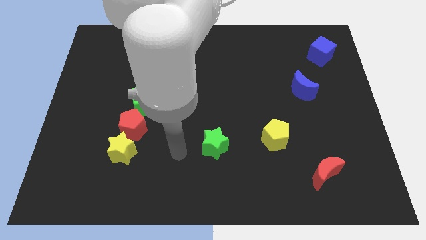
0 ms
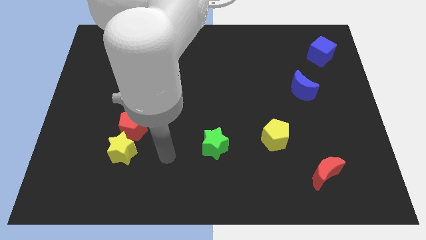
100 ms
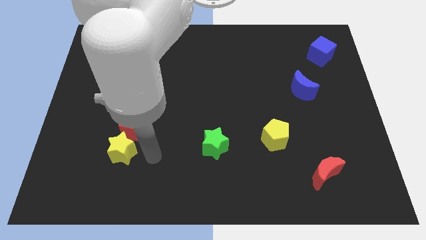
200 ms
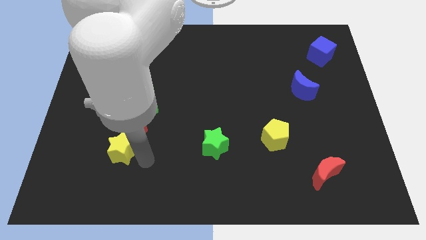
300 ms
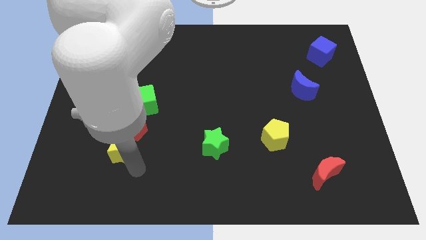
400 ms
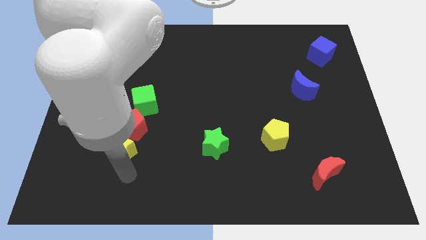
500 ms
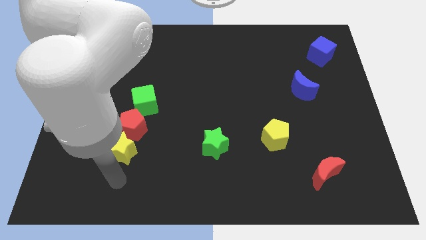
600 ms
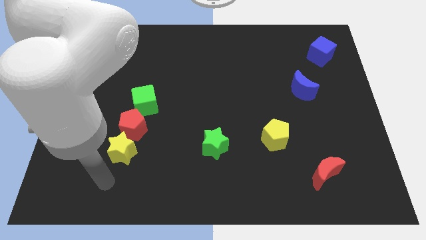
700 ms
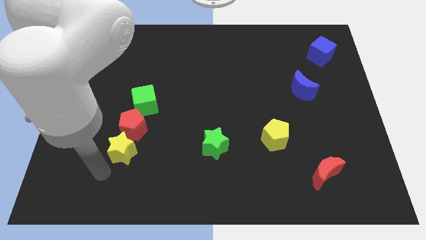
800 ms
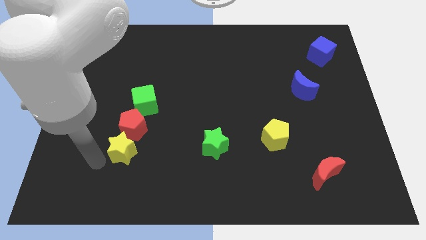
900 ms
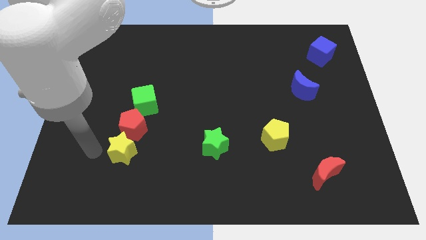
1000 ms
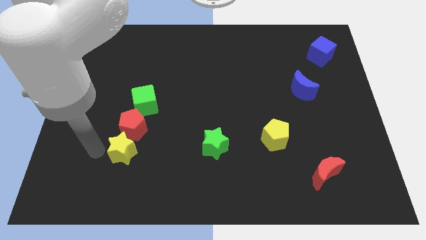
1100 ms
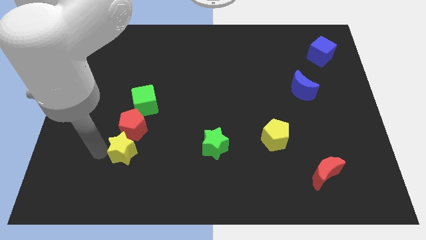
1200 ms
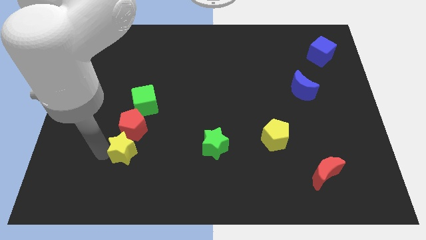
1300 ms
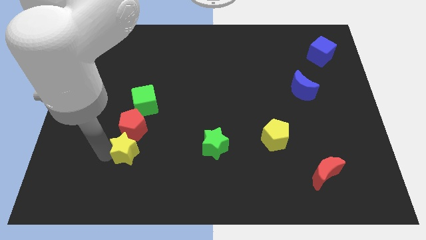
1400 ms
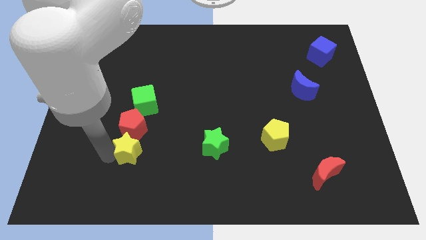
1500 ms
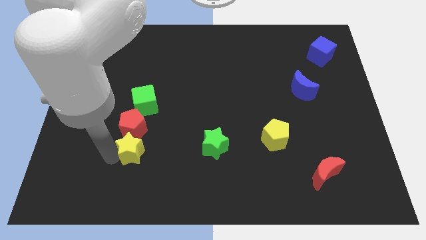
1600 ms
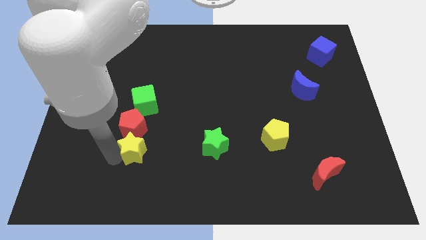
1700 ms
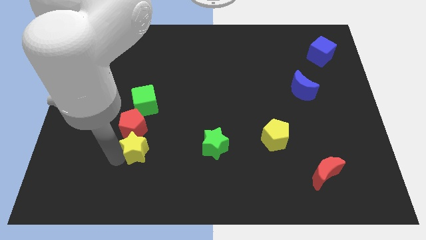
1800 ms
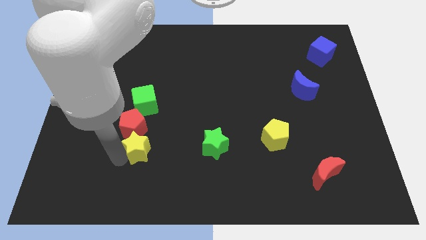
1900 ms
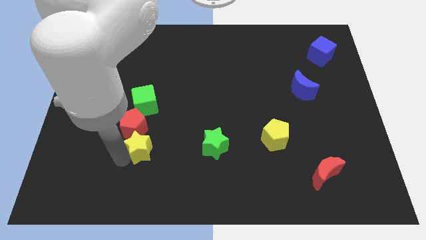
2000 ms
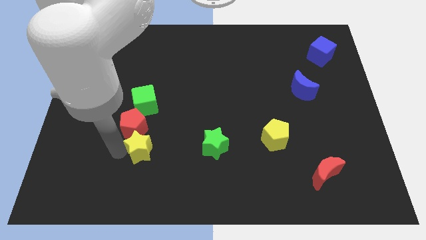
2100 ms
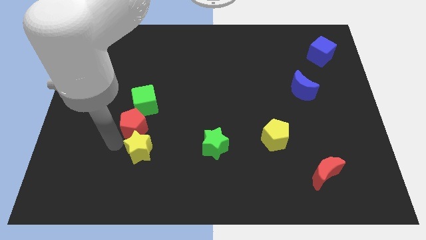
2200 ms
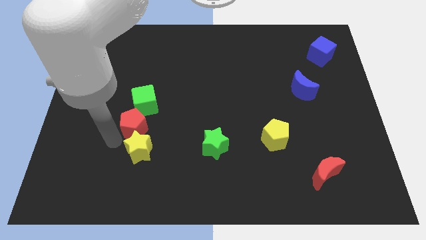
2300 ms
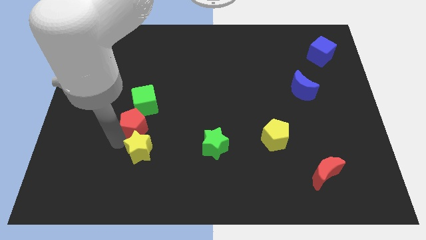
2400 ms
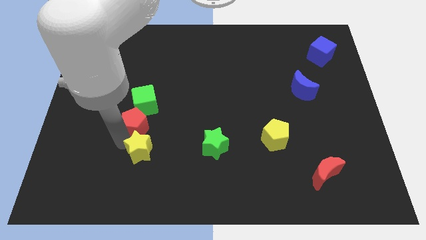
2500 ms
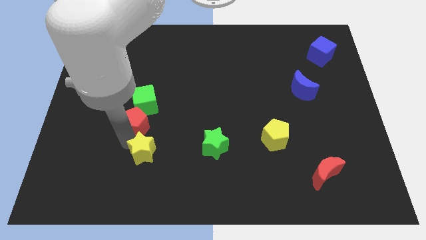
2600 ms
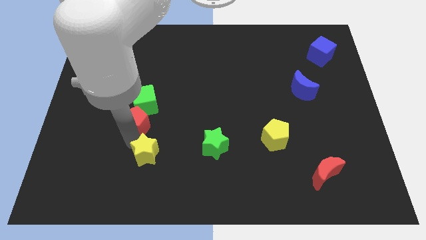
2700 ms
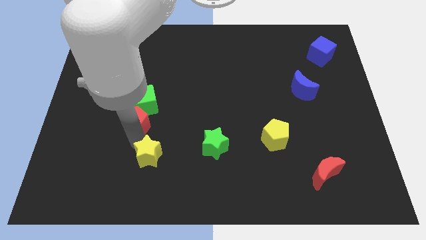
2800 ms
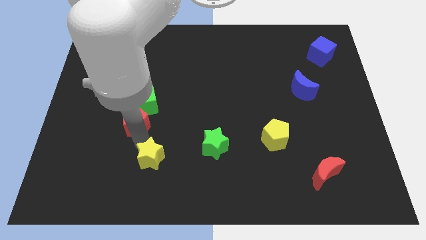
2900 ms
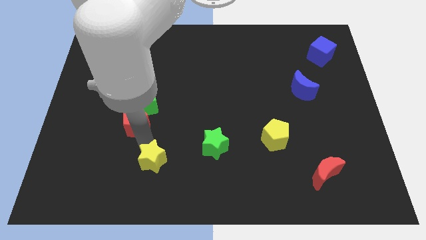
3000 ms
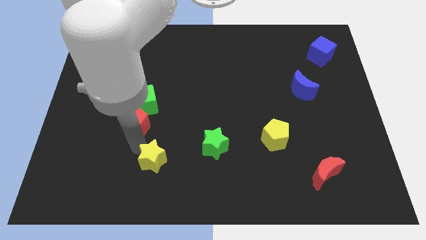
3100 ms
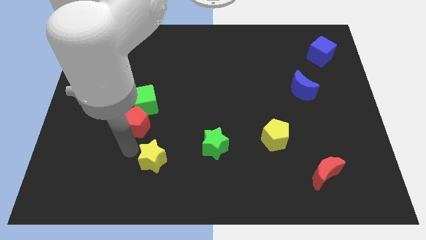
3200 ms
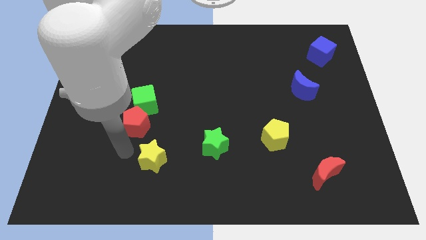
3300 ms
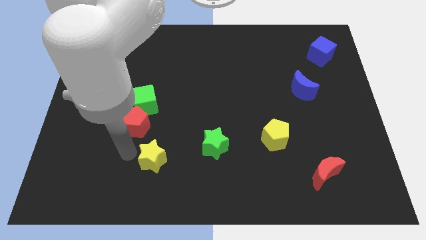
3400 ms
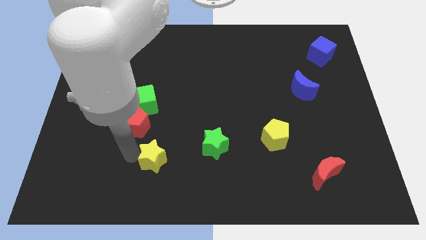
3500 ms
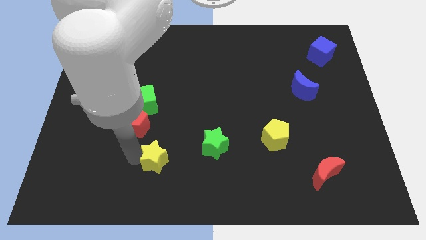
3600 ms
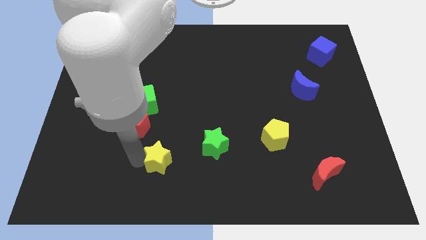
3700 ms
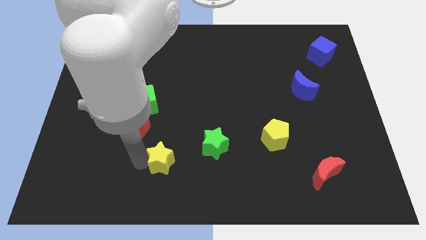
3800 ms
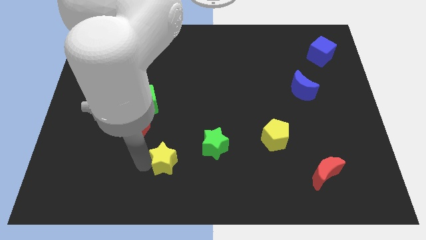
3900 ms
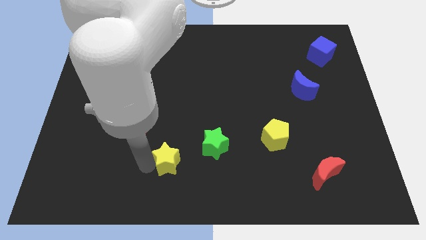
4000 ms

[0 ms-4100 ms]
push the yellow star to the bottom left of the green star

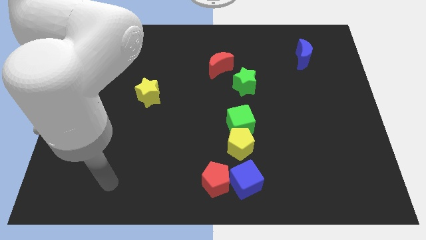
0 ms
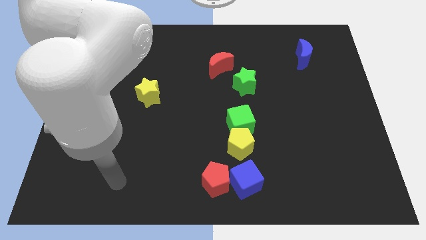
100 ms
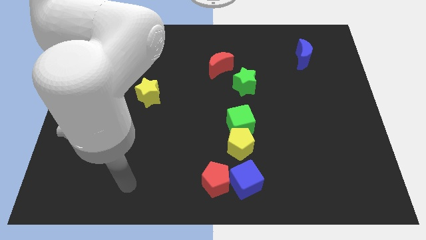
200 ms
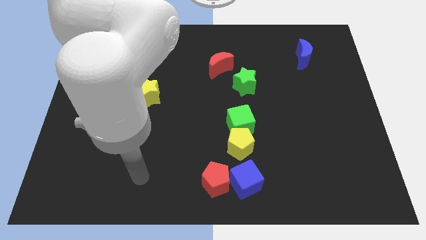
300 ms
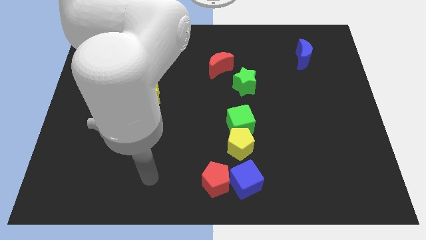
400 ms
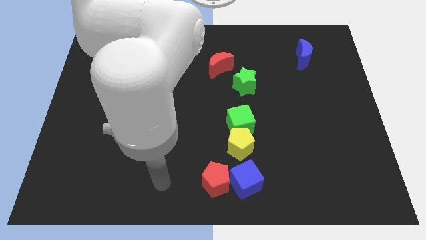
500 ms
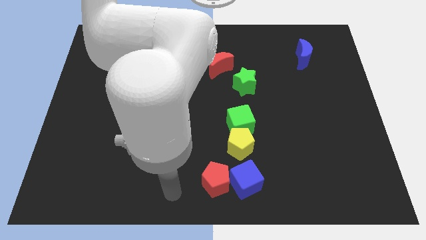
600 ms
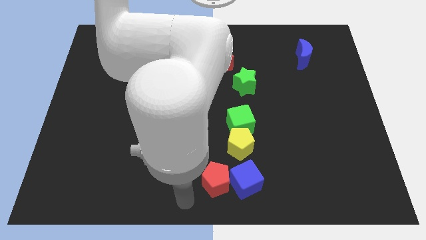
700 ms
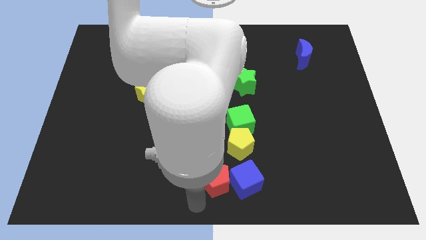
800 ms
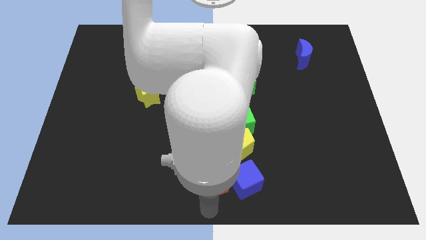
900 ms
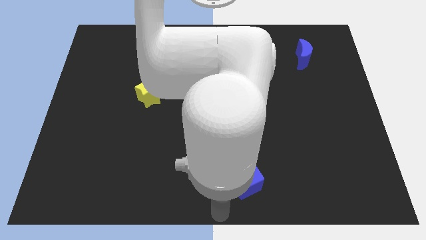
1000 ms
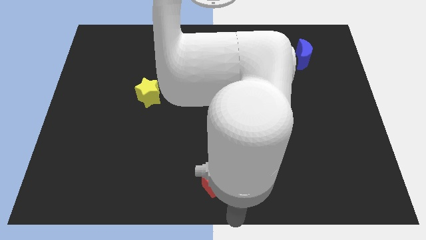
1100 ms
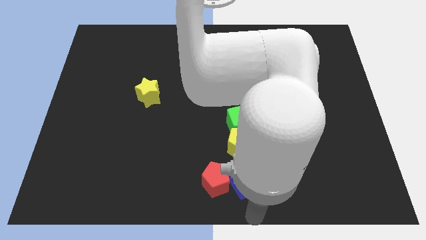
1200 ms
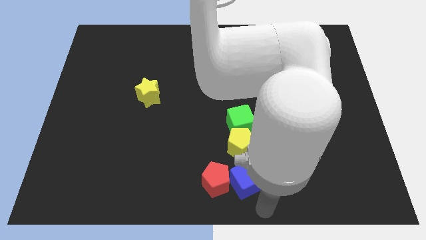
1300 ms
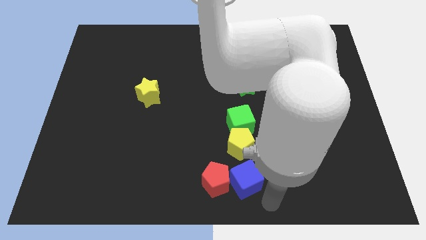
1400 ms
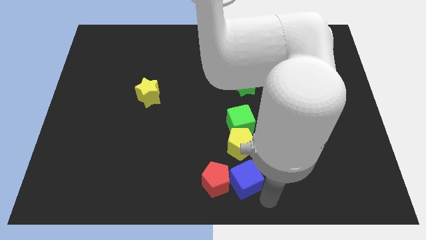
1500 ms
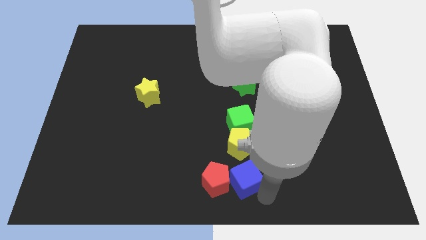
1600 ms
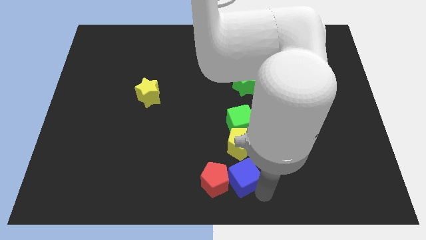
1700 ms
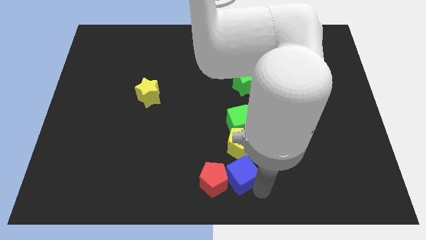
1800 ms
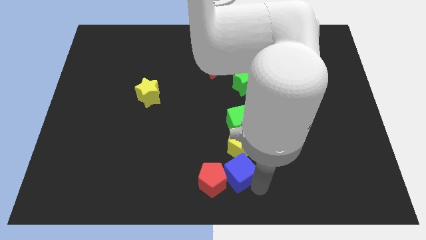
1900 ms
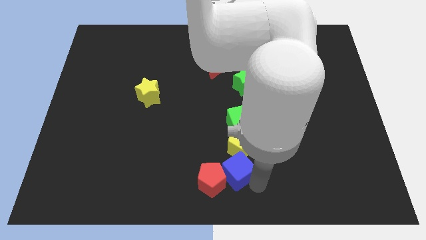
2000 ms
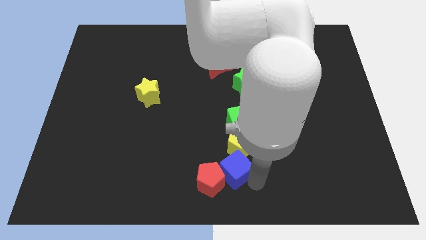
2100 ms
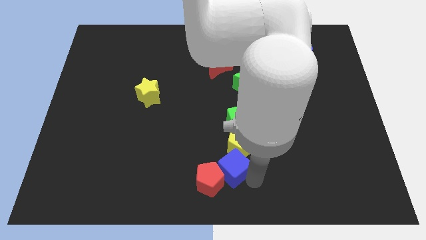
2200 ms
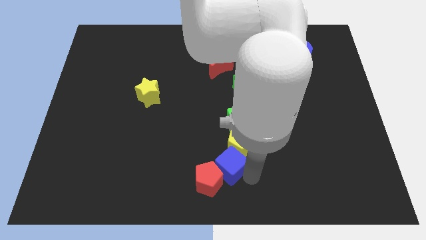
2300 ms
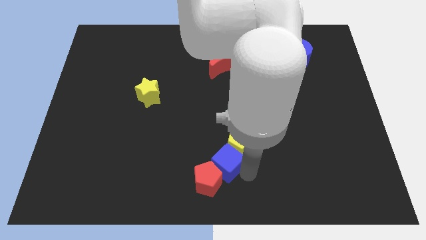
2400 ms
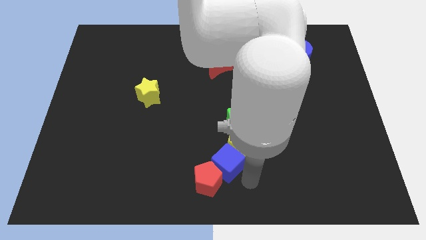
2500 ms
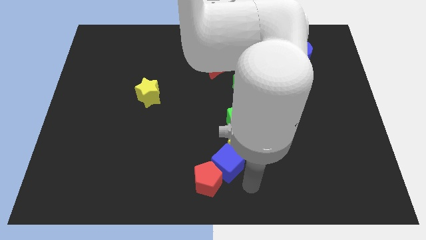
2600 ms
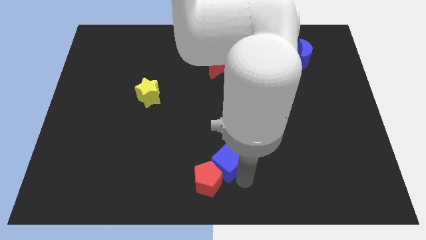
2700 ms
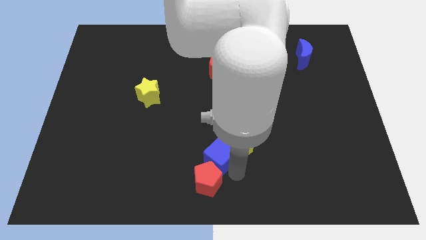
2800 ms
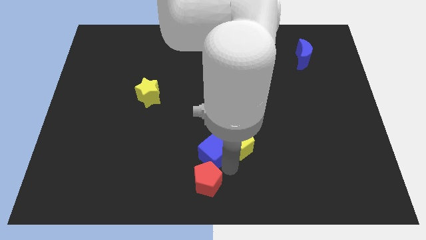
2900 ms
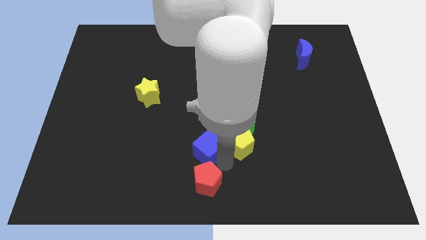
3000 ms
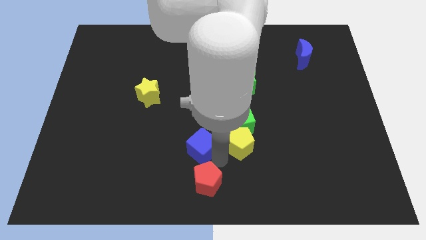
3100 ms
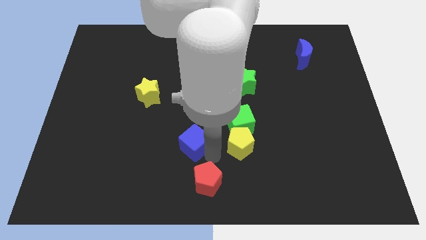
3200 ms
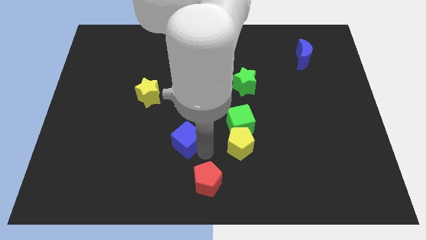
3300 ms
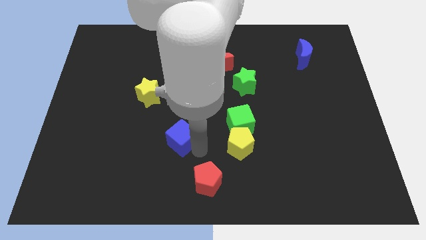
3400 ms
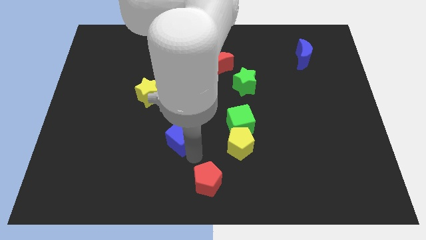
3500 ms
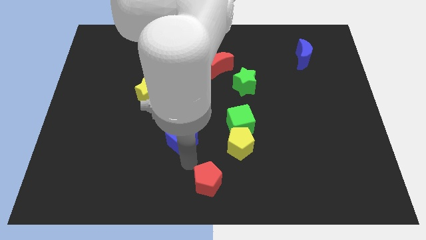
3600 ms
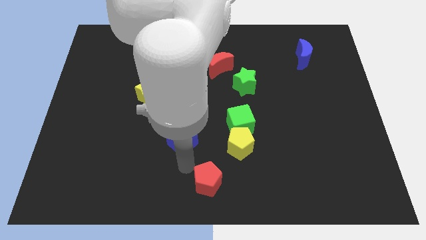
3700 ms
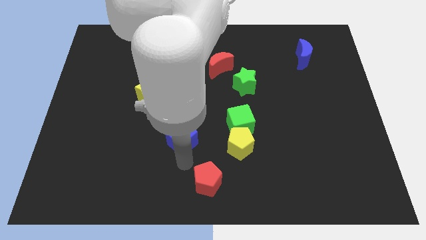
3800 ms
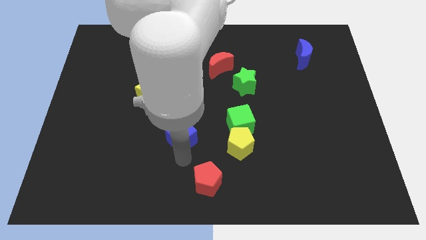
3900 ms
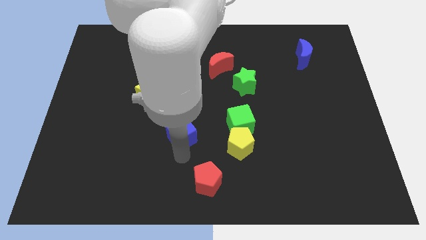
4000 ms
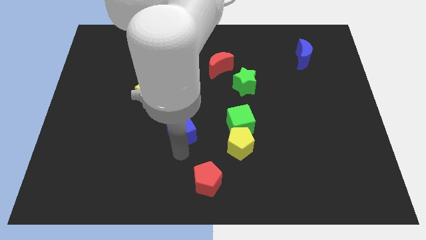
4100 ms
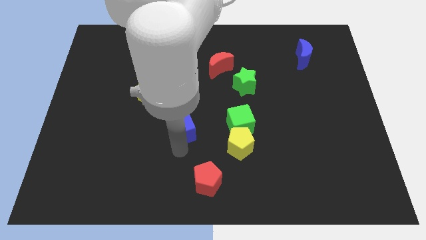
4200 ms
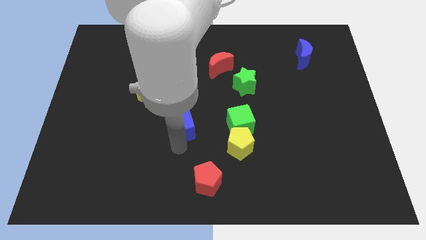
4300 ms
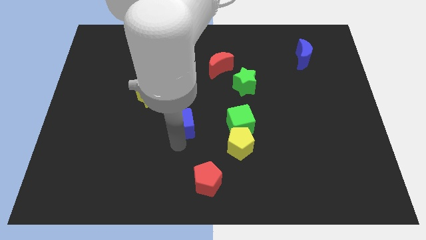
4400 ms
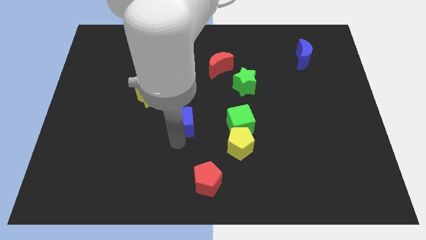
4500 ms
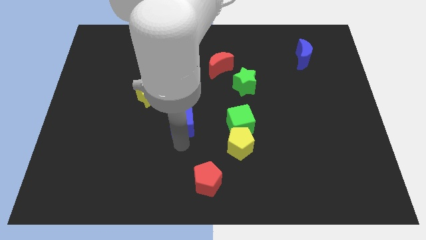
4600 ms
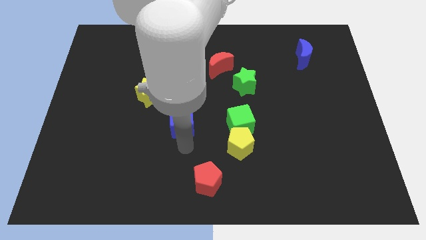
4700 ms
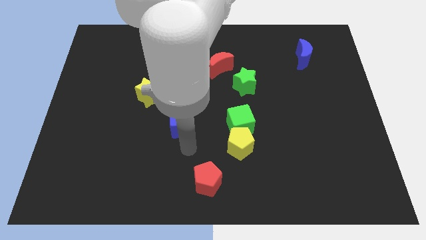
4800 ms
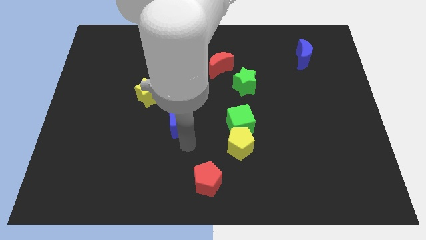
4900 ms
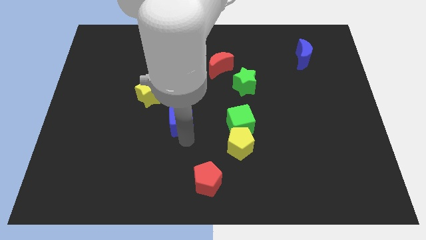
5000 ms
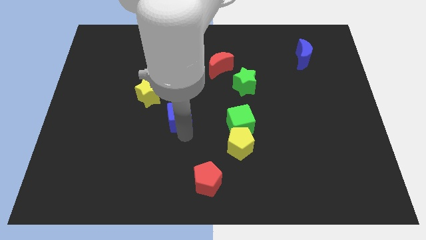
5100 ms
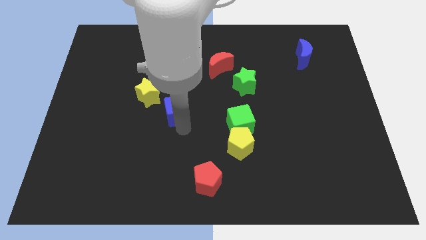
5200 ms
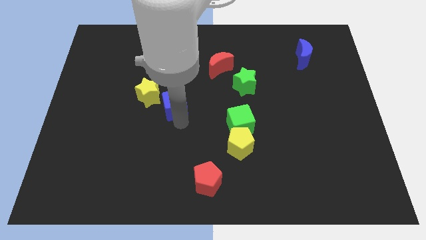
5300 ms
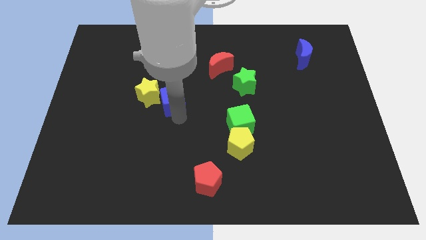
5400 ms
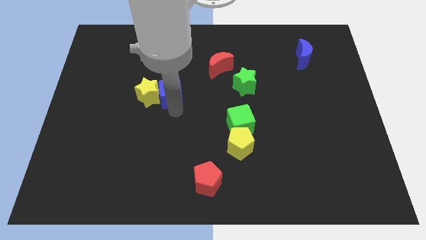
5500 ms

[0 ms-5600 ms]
push the blue cube diagonally up and to the right of the yellow star
